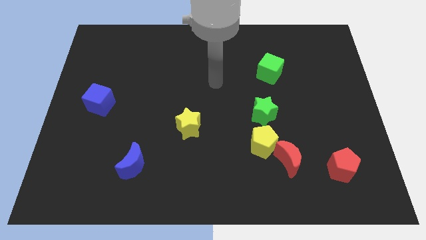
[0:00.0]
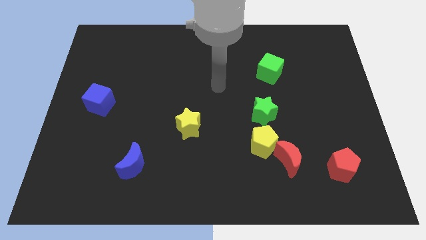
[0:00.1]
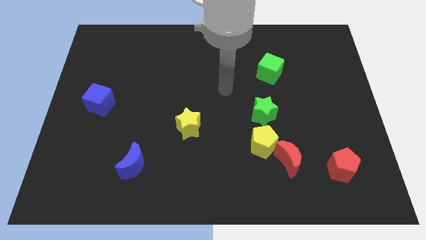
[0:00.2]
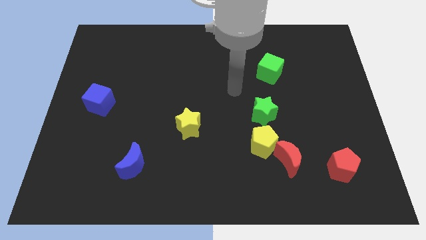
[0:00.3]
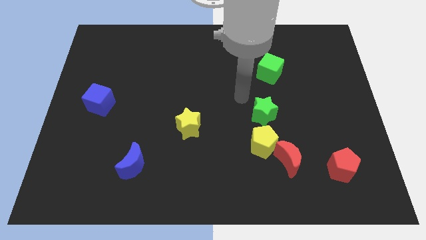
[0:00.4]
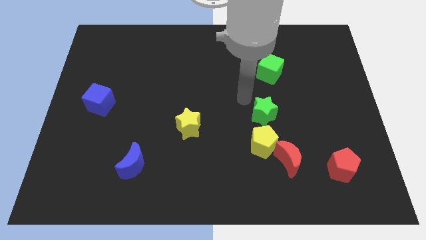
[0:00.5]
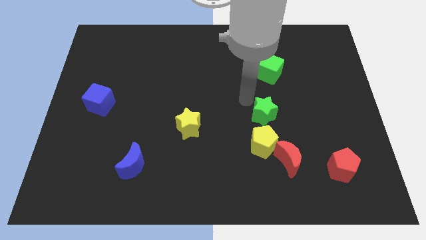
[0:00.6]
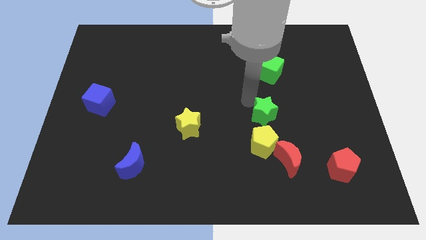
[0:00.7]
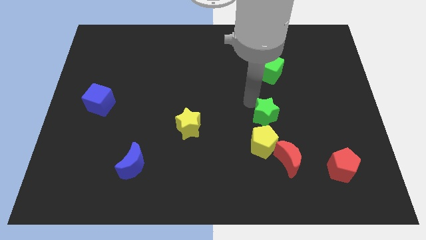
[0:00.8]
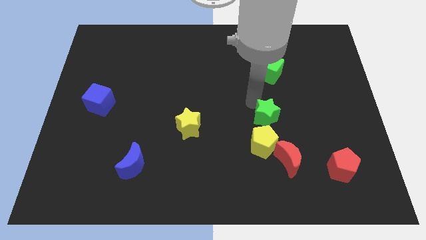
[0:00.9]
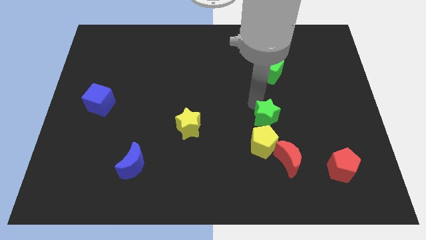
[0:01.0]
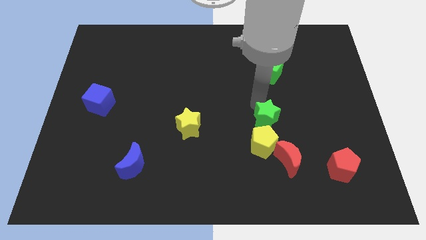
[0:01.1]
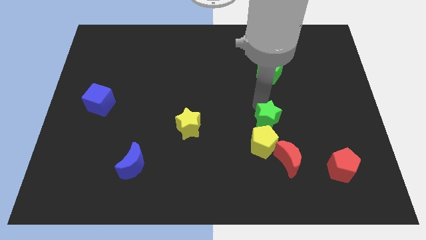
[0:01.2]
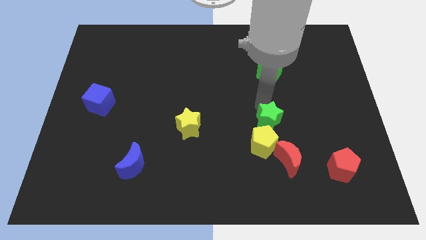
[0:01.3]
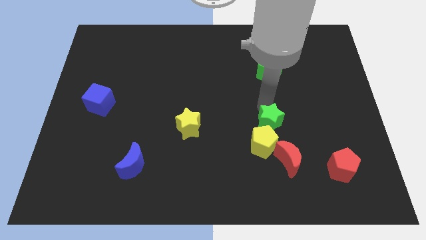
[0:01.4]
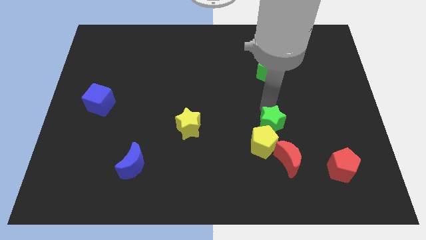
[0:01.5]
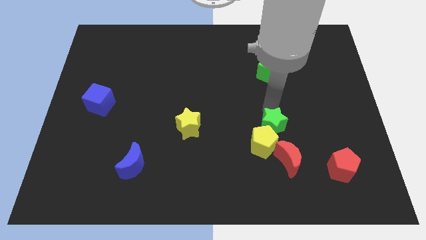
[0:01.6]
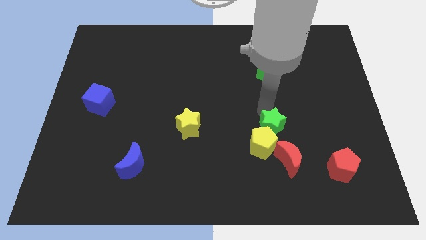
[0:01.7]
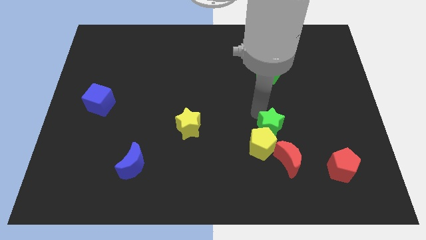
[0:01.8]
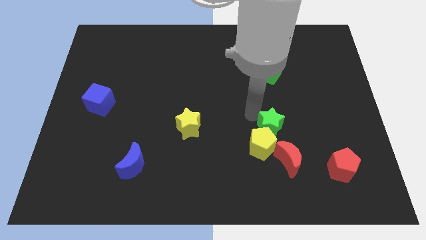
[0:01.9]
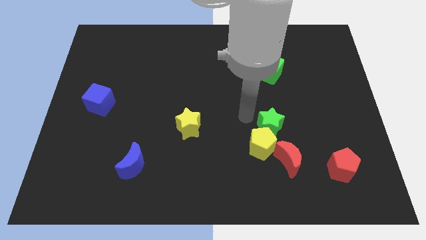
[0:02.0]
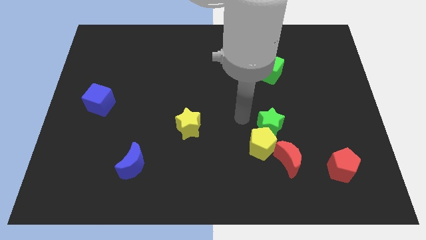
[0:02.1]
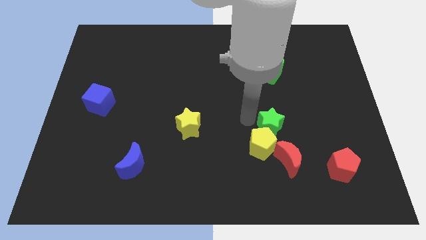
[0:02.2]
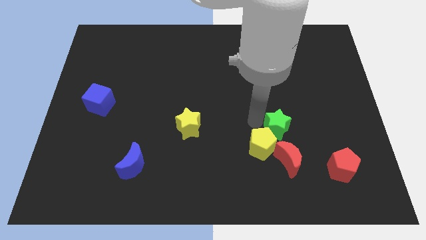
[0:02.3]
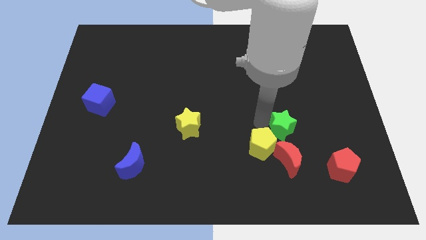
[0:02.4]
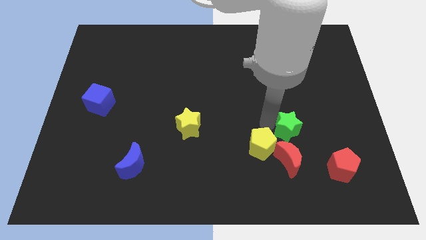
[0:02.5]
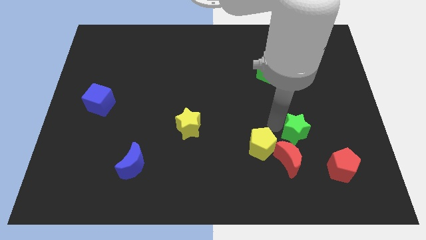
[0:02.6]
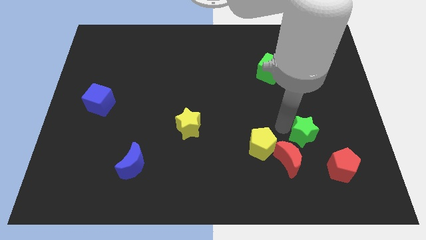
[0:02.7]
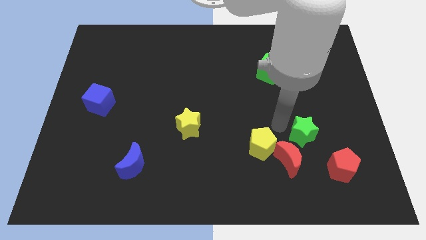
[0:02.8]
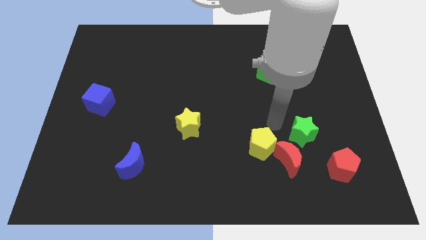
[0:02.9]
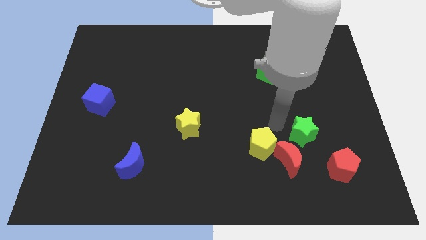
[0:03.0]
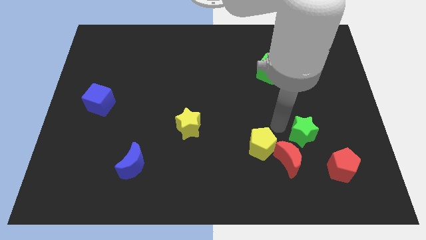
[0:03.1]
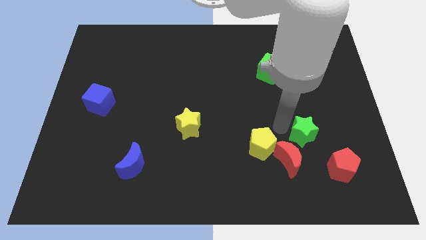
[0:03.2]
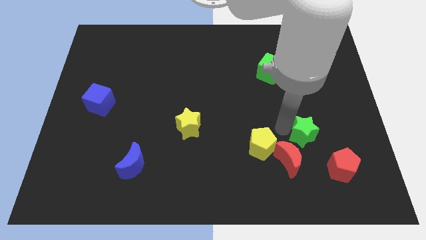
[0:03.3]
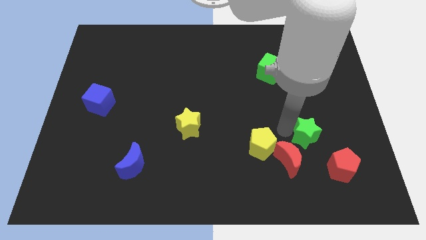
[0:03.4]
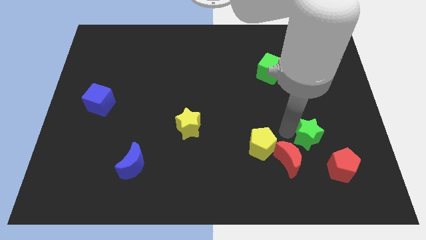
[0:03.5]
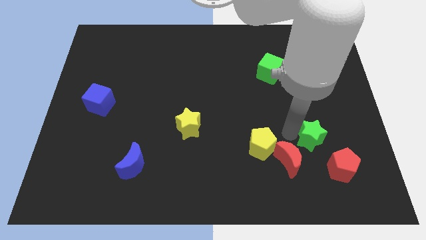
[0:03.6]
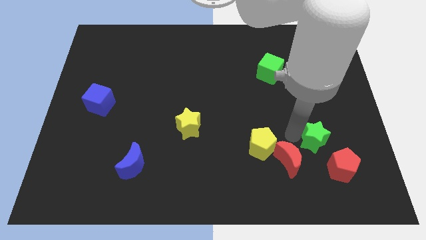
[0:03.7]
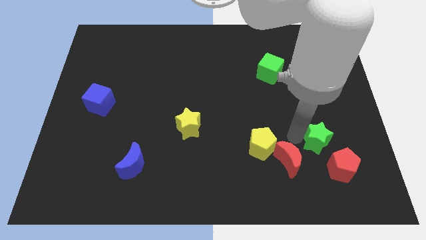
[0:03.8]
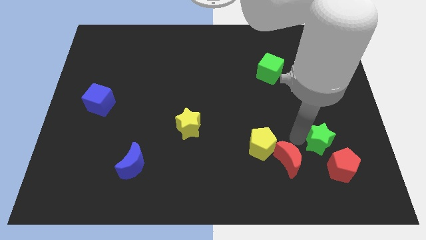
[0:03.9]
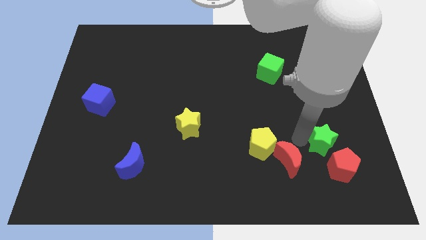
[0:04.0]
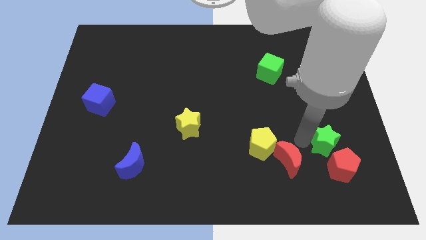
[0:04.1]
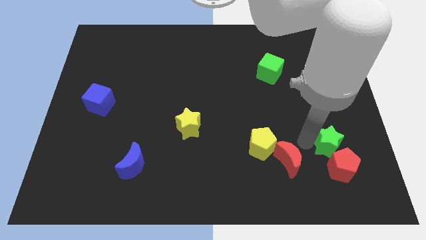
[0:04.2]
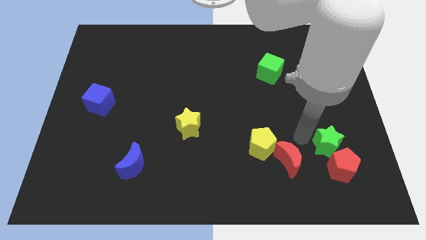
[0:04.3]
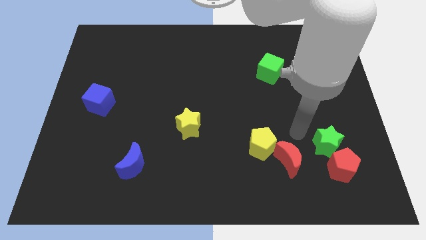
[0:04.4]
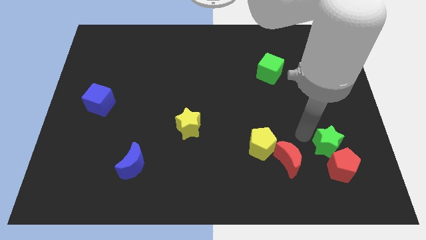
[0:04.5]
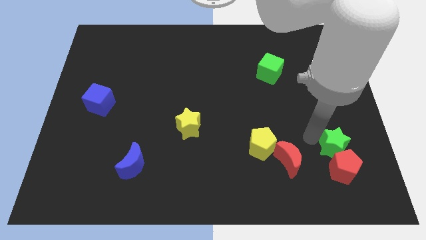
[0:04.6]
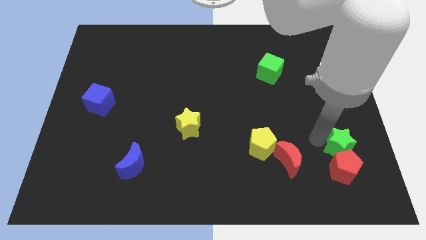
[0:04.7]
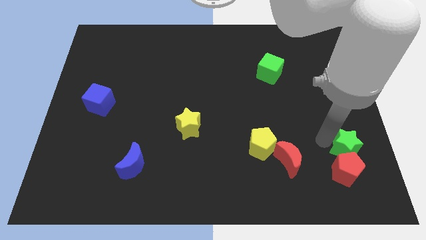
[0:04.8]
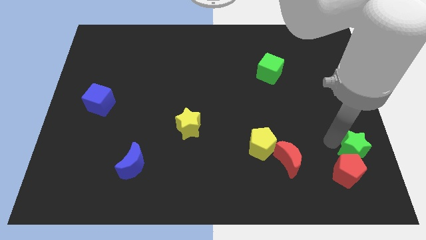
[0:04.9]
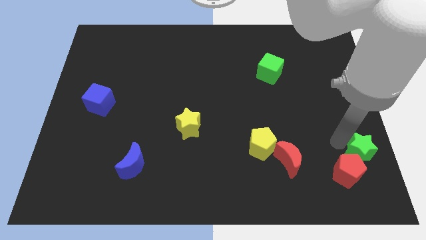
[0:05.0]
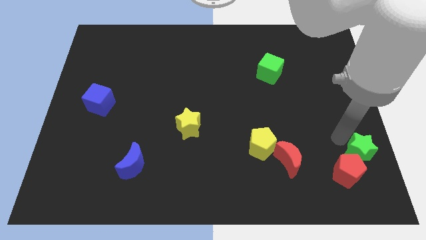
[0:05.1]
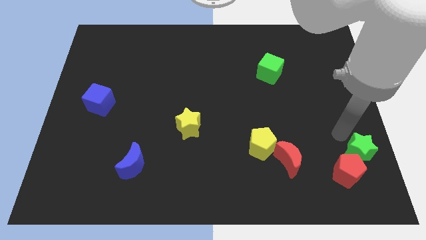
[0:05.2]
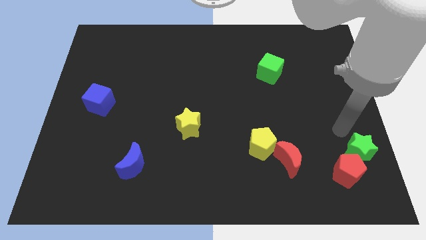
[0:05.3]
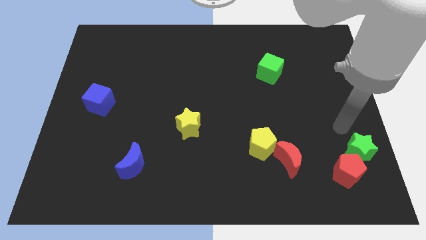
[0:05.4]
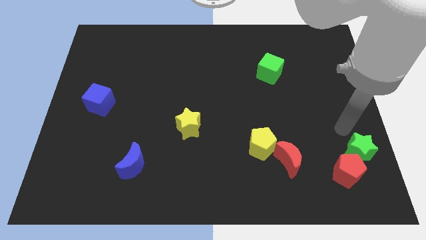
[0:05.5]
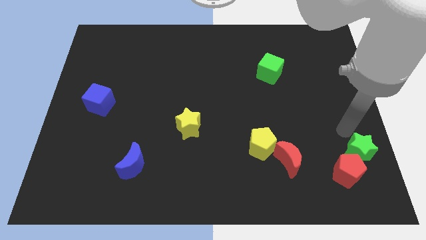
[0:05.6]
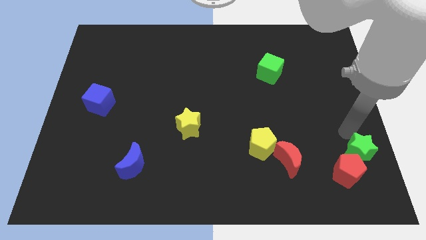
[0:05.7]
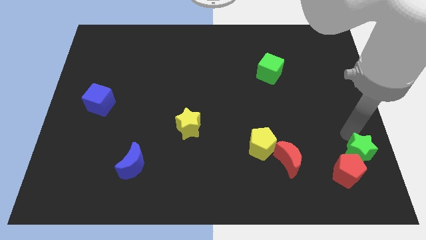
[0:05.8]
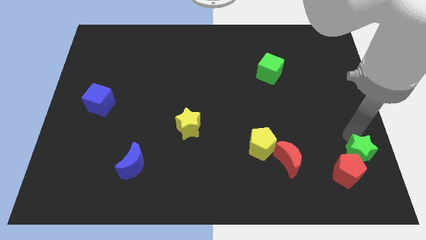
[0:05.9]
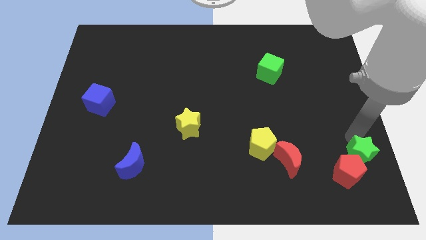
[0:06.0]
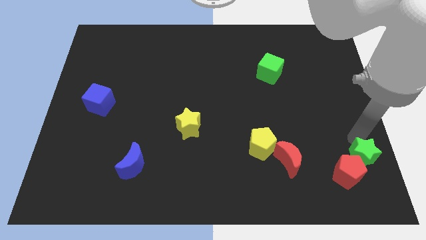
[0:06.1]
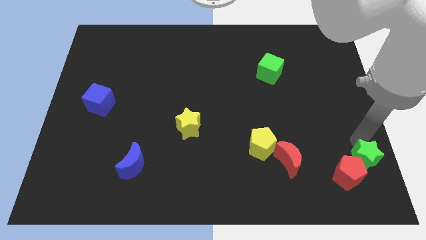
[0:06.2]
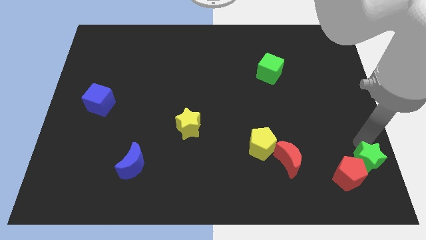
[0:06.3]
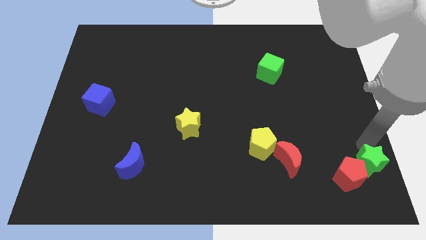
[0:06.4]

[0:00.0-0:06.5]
move the green star to the bottom right
